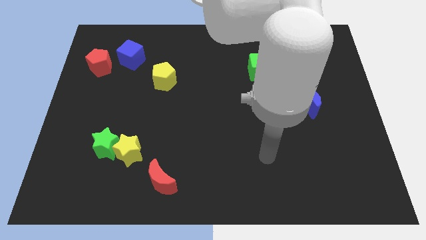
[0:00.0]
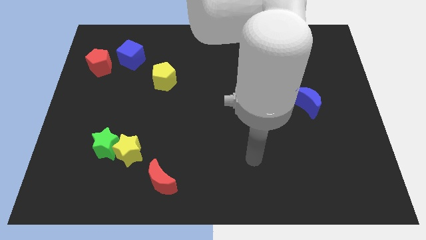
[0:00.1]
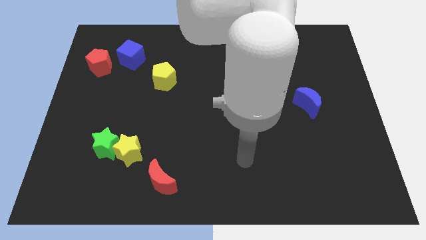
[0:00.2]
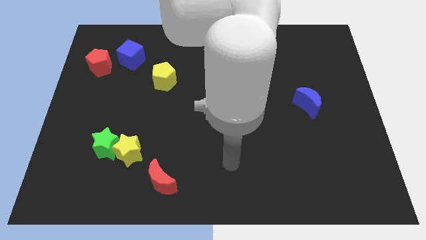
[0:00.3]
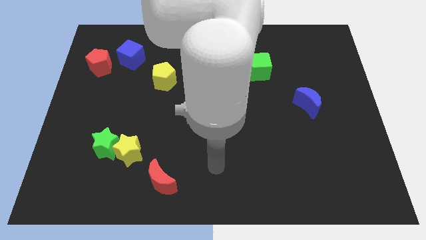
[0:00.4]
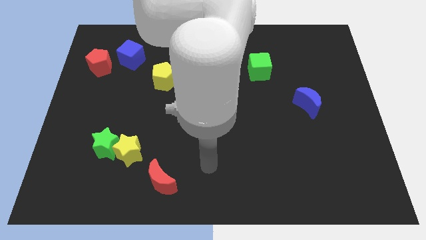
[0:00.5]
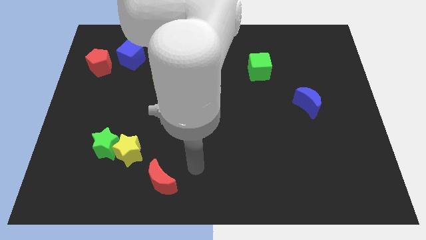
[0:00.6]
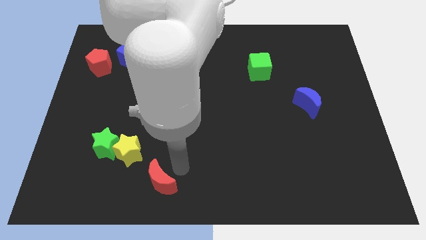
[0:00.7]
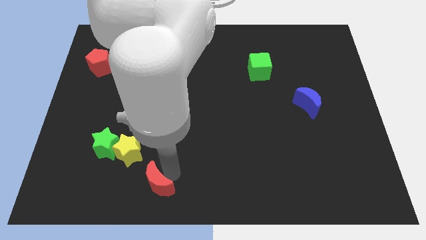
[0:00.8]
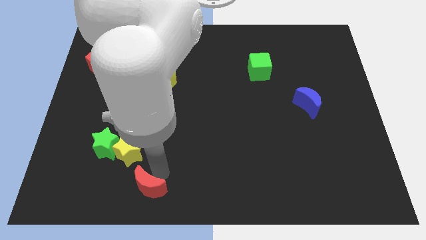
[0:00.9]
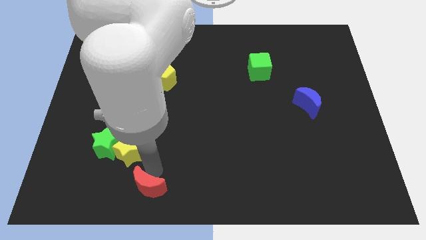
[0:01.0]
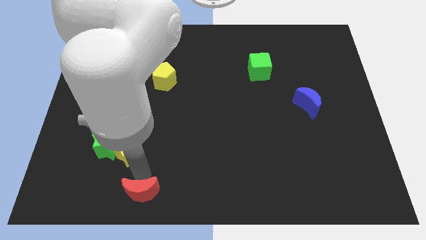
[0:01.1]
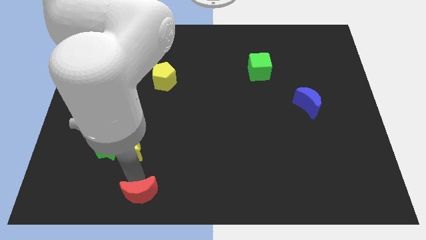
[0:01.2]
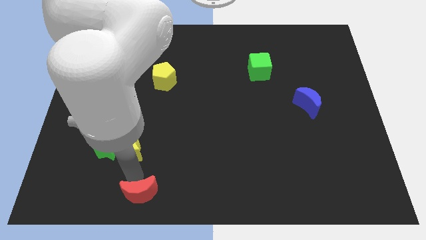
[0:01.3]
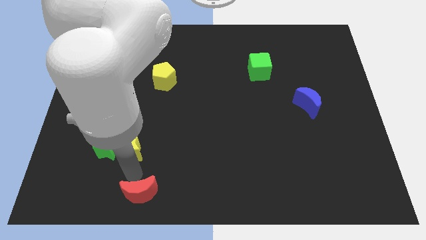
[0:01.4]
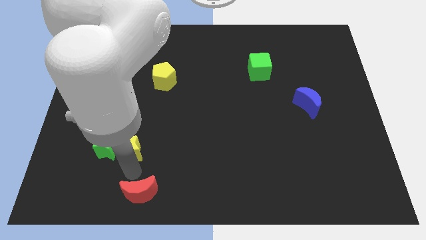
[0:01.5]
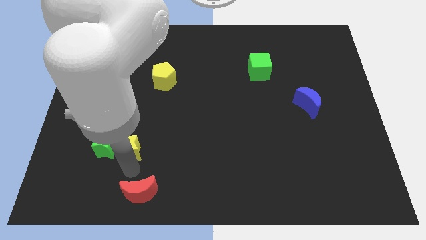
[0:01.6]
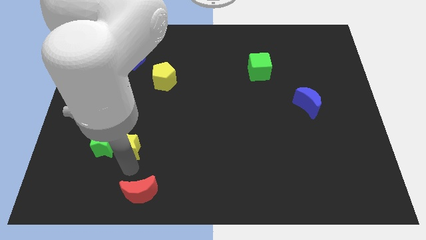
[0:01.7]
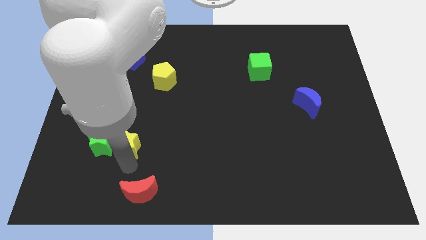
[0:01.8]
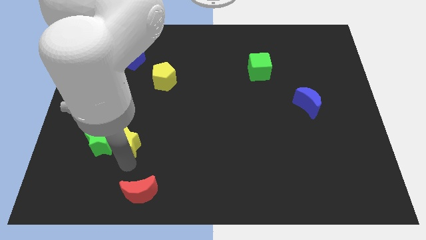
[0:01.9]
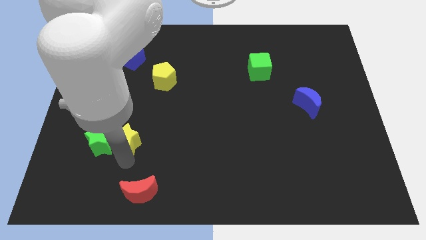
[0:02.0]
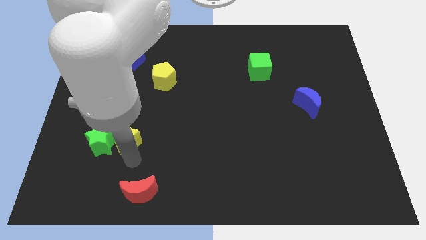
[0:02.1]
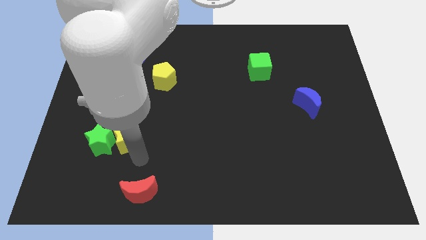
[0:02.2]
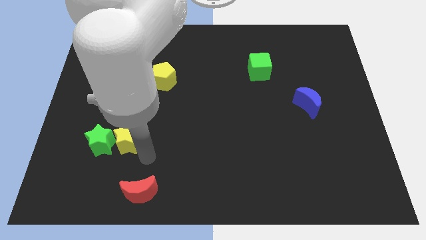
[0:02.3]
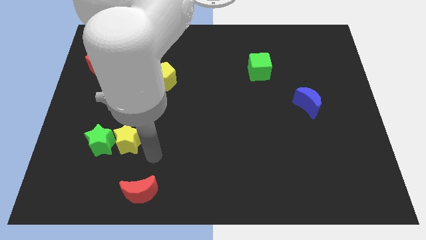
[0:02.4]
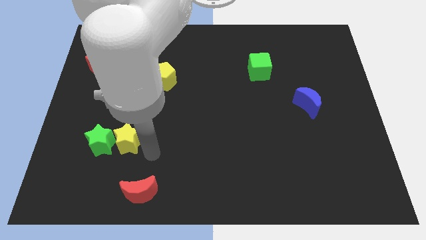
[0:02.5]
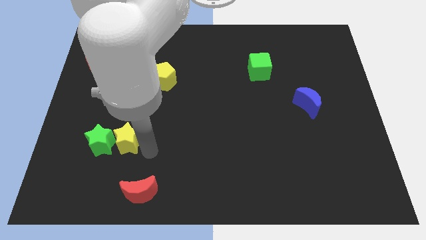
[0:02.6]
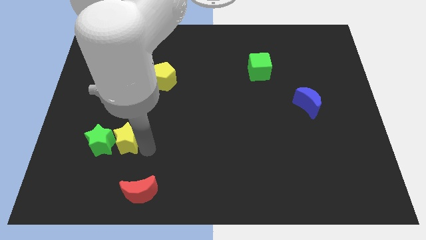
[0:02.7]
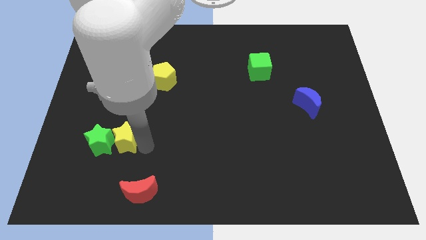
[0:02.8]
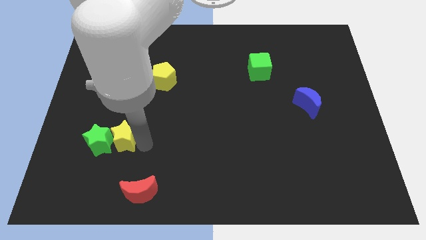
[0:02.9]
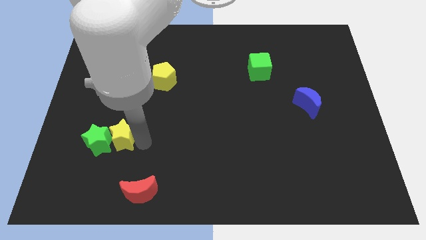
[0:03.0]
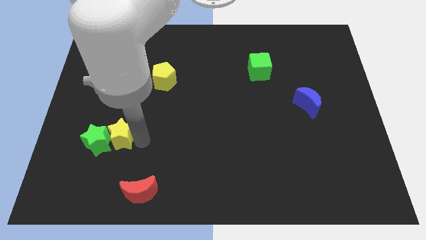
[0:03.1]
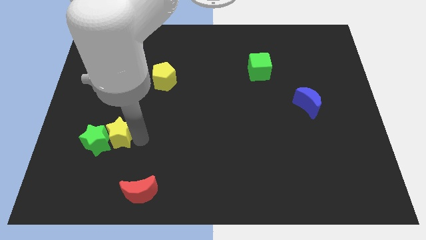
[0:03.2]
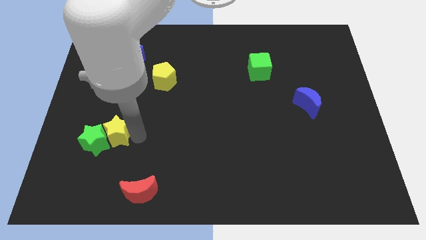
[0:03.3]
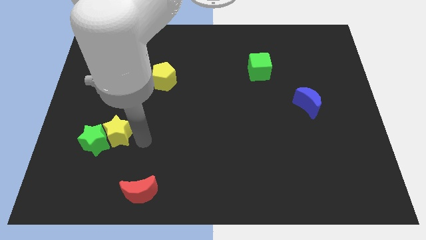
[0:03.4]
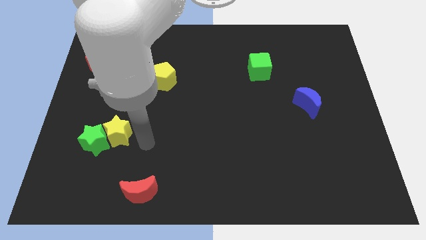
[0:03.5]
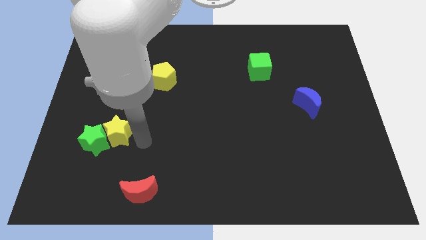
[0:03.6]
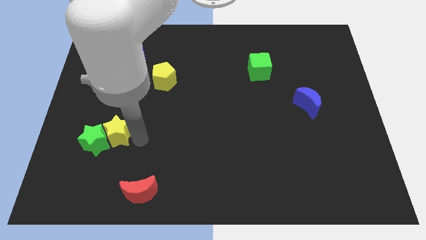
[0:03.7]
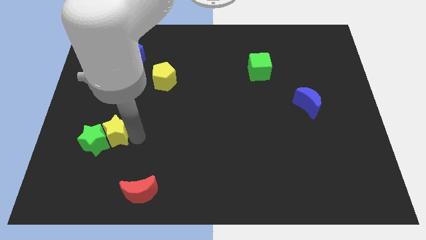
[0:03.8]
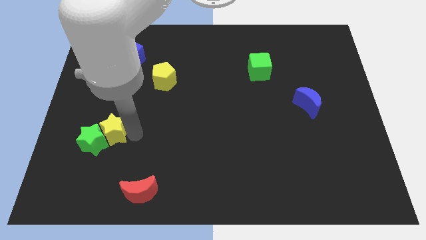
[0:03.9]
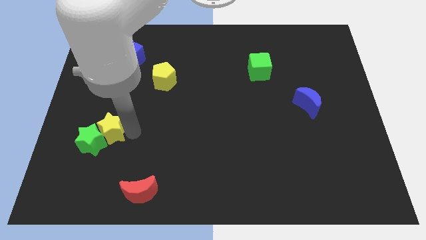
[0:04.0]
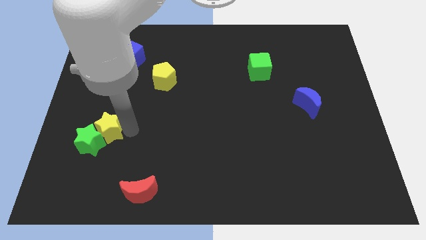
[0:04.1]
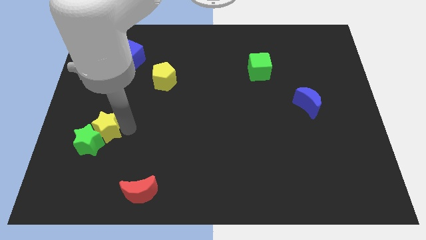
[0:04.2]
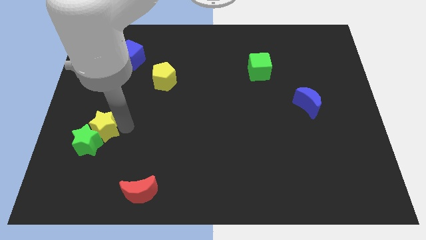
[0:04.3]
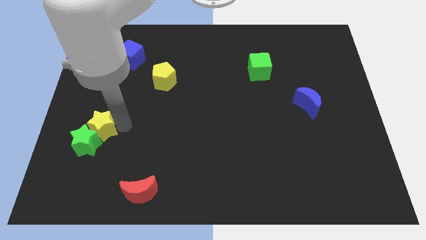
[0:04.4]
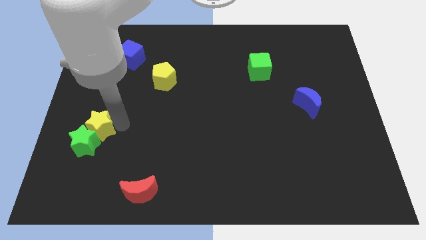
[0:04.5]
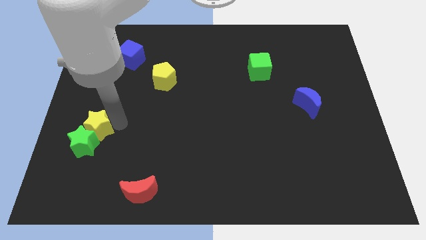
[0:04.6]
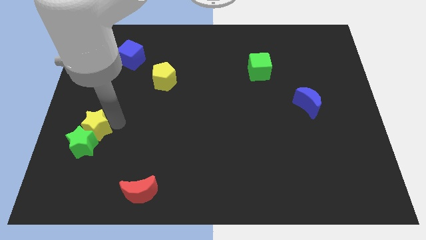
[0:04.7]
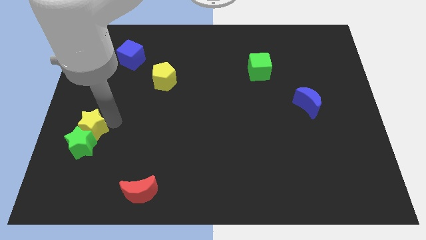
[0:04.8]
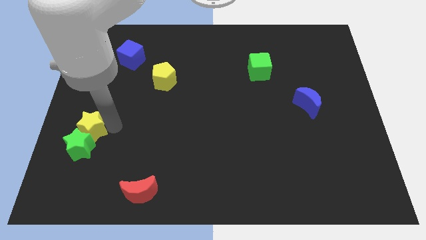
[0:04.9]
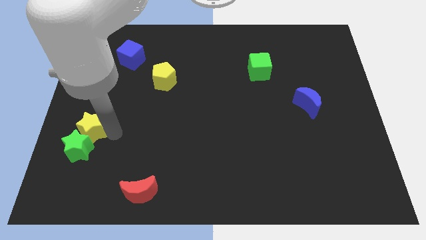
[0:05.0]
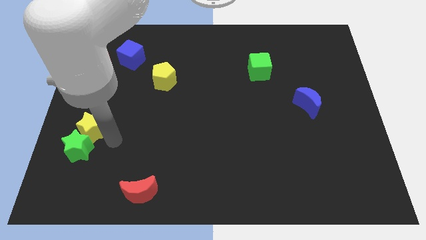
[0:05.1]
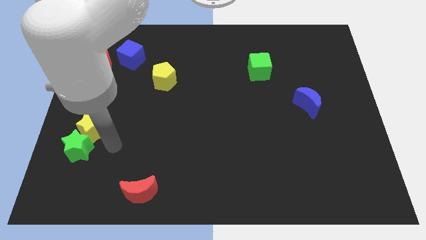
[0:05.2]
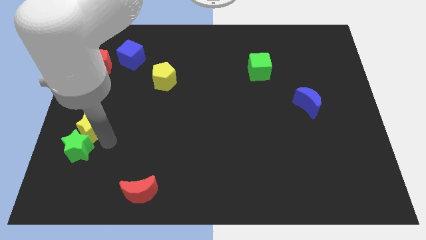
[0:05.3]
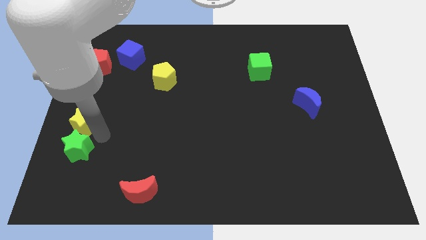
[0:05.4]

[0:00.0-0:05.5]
push the yellow star to the left side of the board

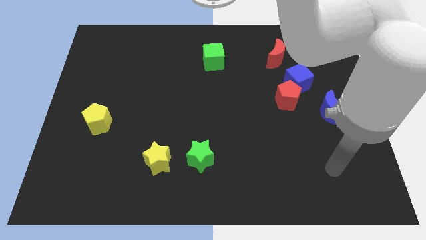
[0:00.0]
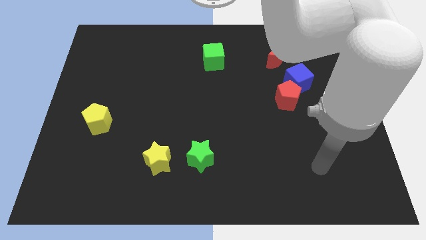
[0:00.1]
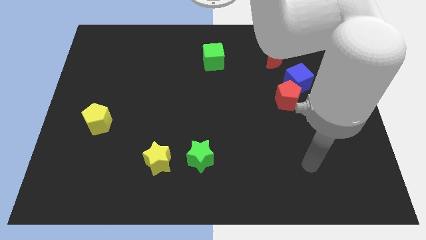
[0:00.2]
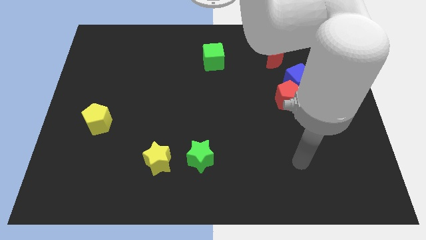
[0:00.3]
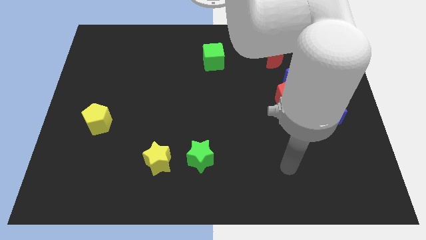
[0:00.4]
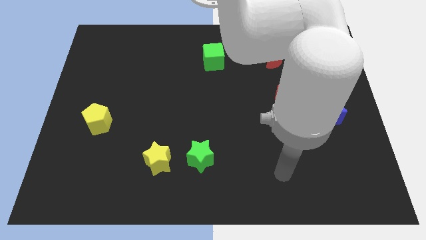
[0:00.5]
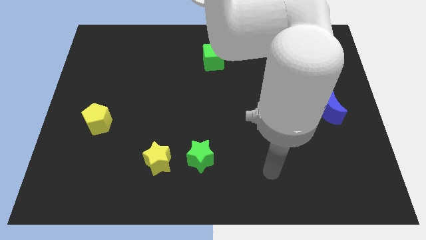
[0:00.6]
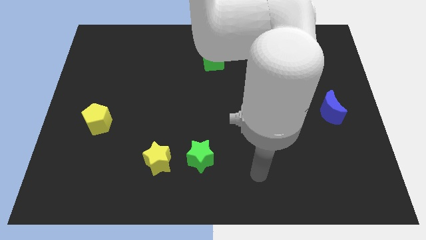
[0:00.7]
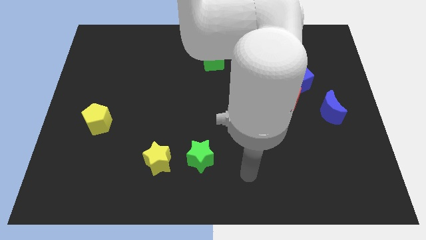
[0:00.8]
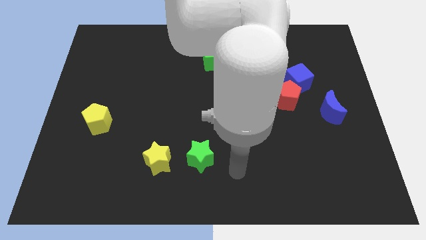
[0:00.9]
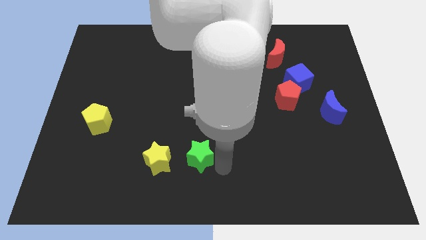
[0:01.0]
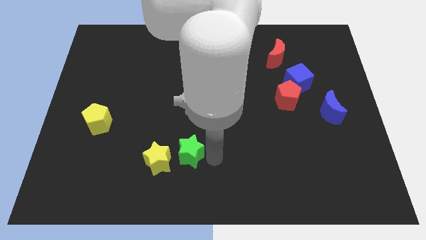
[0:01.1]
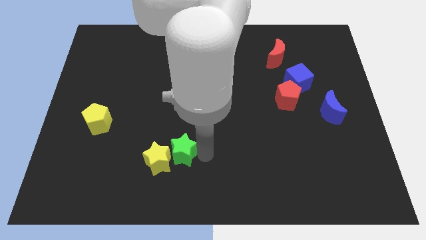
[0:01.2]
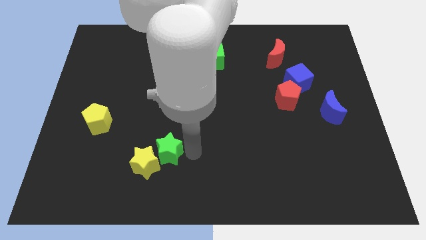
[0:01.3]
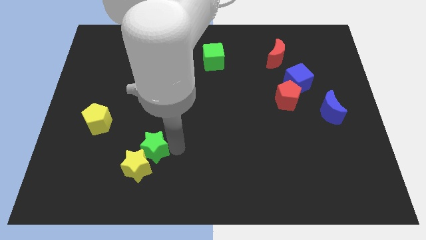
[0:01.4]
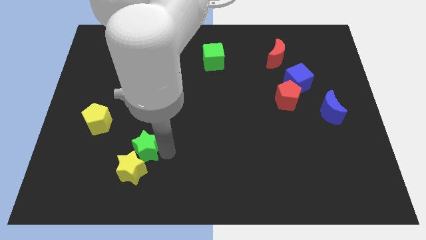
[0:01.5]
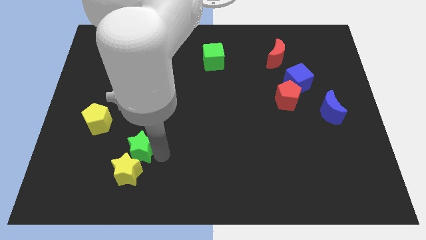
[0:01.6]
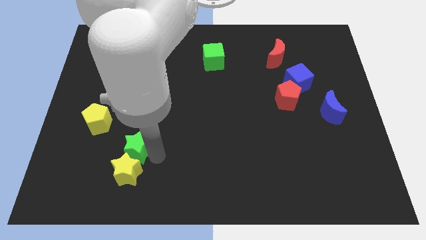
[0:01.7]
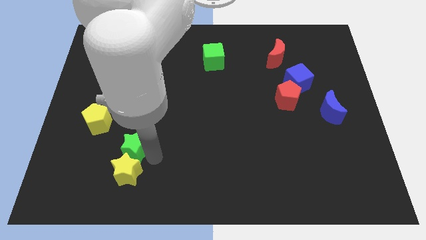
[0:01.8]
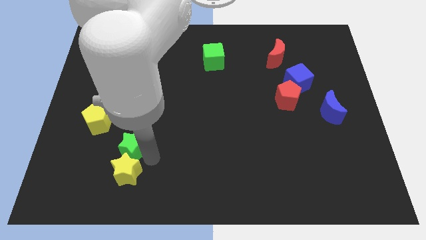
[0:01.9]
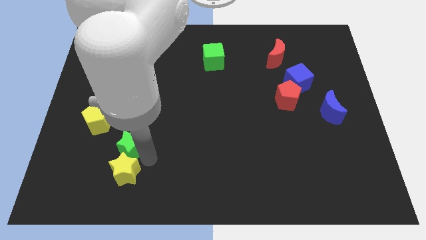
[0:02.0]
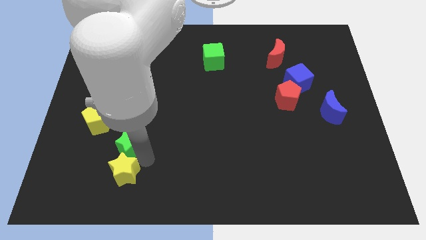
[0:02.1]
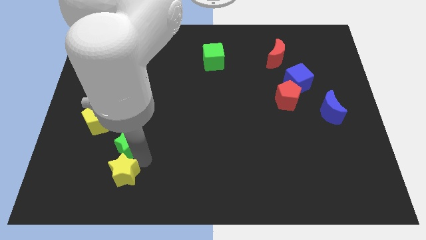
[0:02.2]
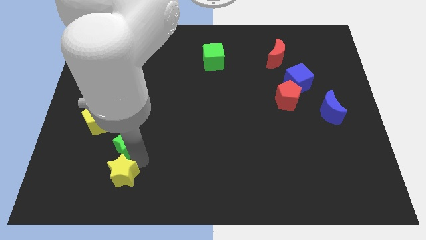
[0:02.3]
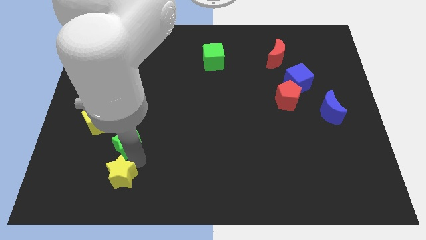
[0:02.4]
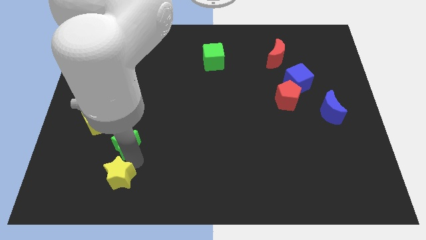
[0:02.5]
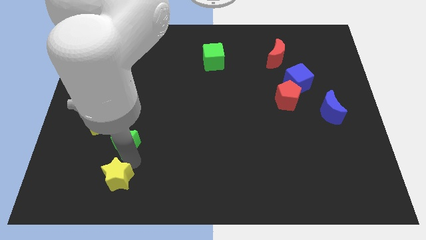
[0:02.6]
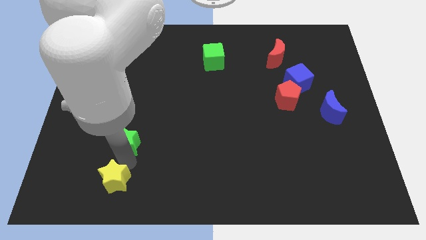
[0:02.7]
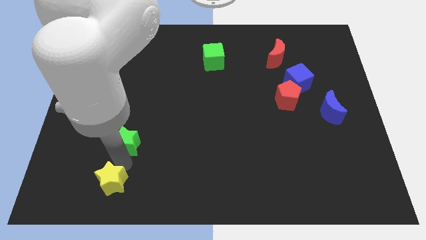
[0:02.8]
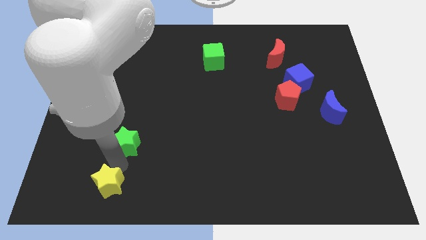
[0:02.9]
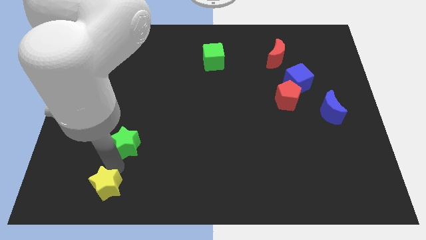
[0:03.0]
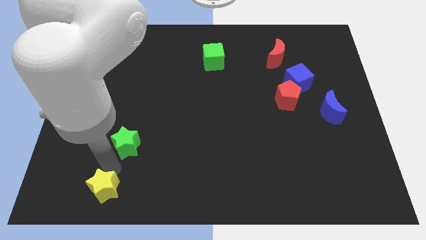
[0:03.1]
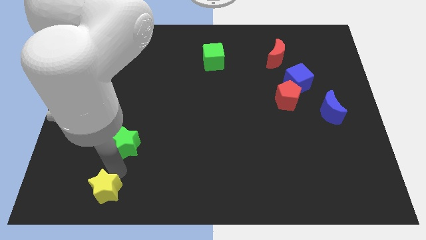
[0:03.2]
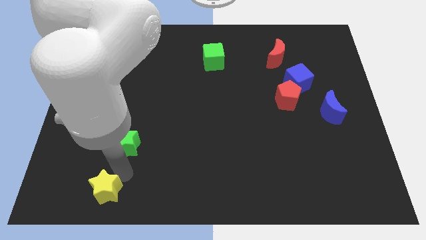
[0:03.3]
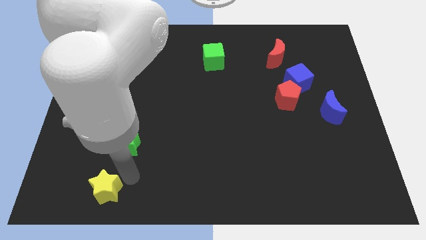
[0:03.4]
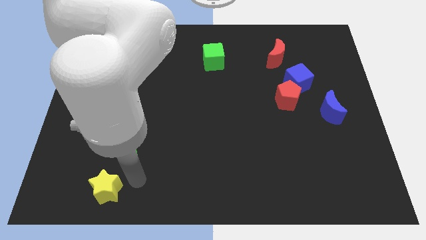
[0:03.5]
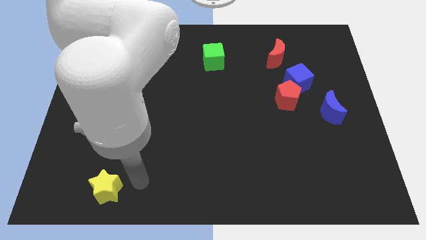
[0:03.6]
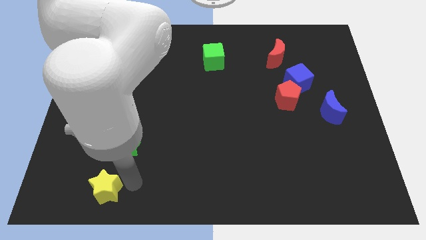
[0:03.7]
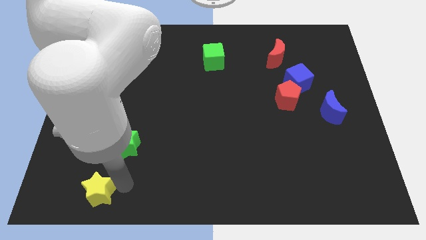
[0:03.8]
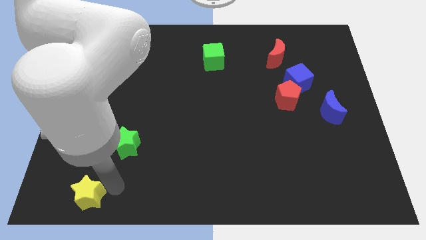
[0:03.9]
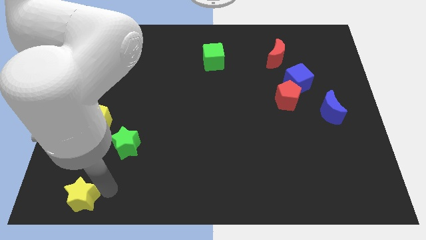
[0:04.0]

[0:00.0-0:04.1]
slide the yellow star to the bottom left
